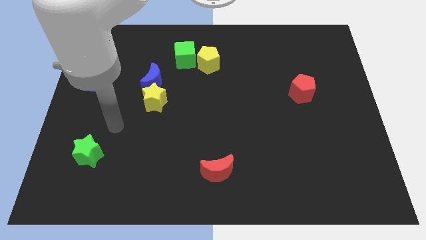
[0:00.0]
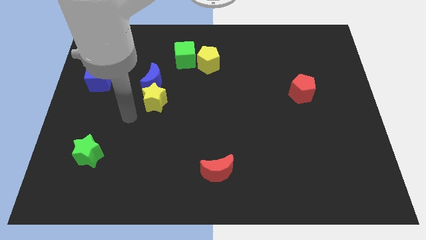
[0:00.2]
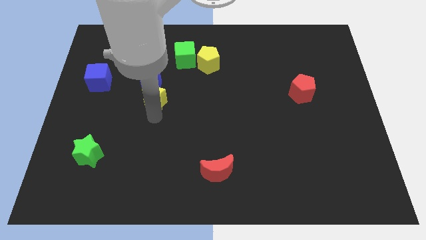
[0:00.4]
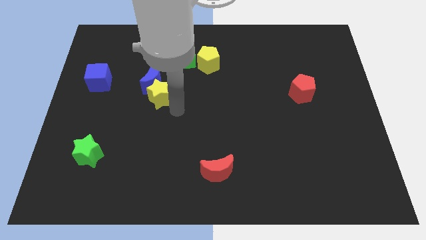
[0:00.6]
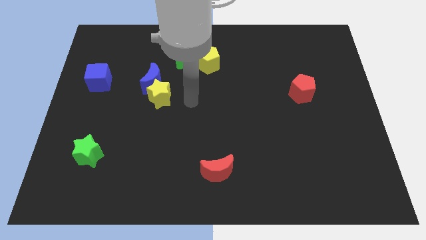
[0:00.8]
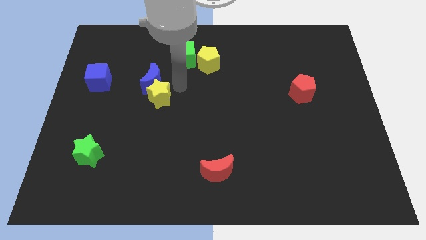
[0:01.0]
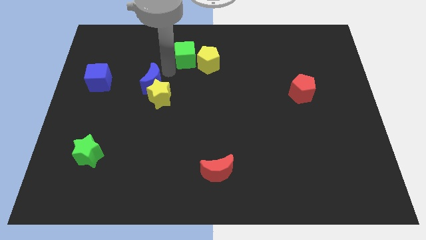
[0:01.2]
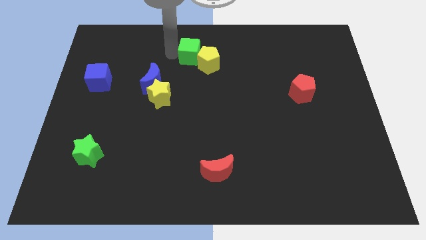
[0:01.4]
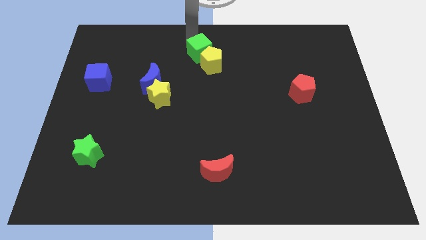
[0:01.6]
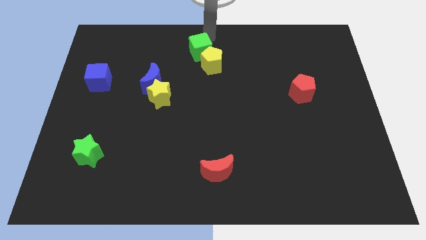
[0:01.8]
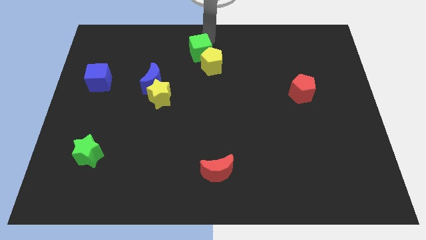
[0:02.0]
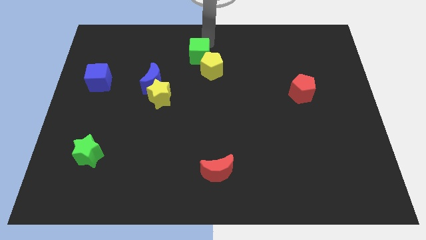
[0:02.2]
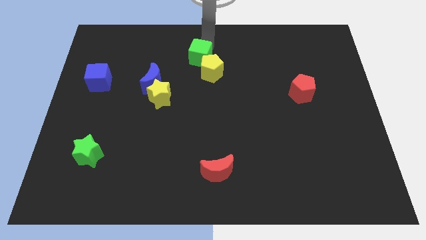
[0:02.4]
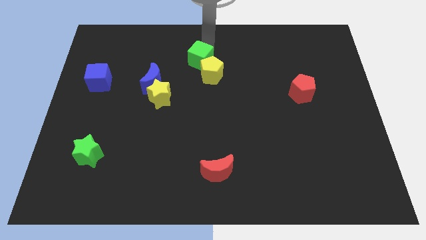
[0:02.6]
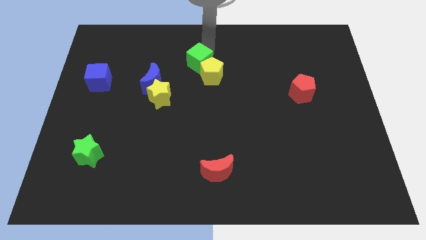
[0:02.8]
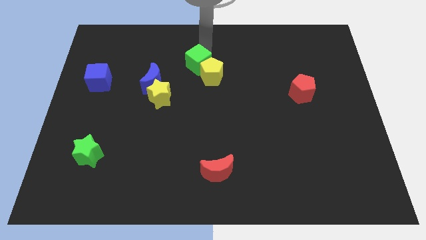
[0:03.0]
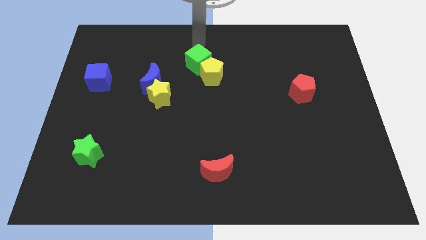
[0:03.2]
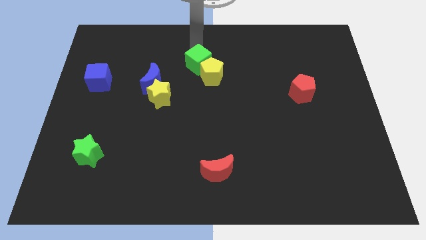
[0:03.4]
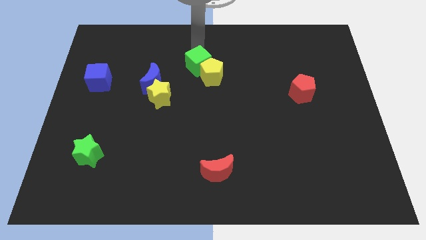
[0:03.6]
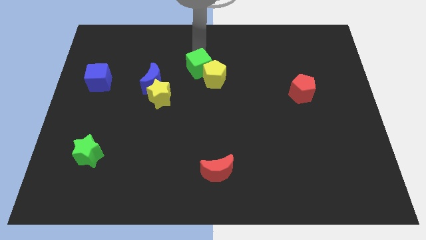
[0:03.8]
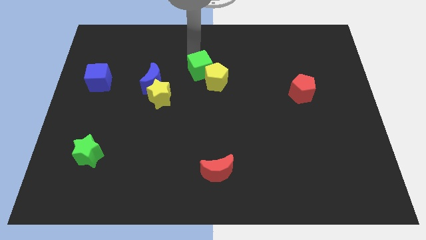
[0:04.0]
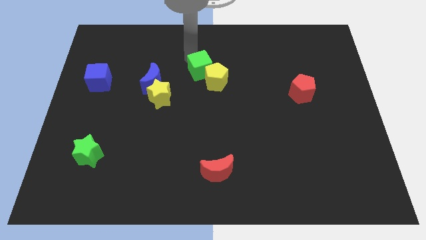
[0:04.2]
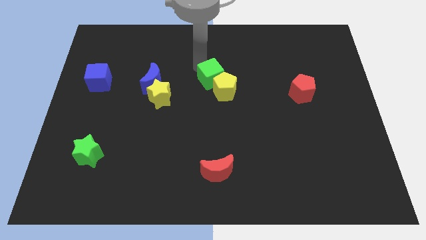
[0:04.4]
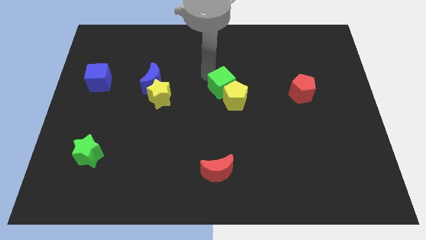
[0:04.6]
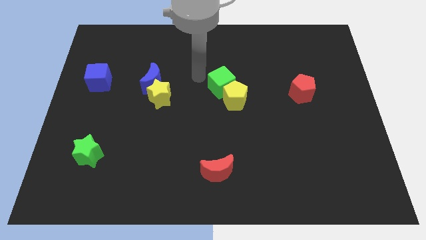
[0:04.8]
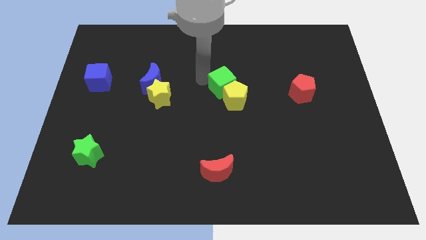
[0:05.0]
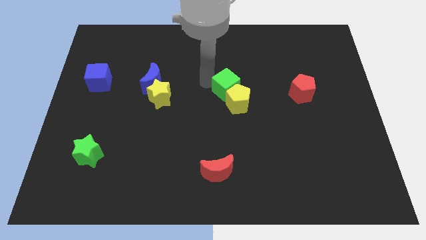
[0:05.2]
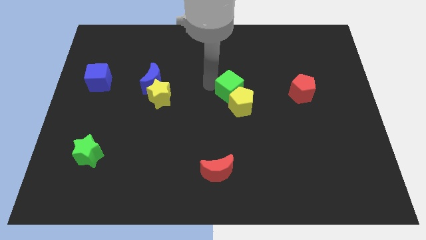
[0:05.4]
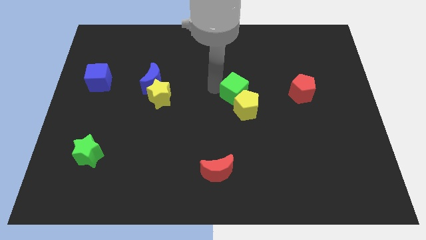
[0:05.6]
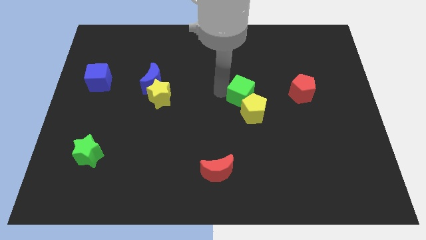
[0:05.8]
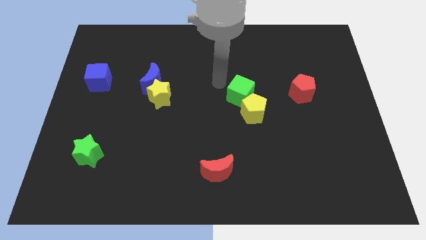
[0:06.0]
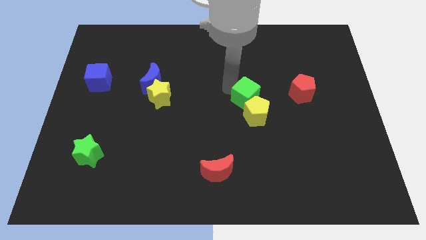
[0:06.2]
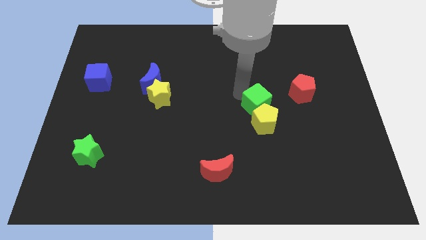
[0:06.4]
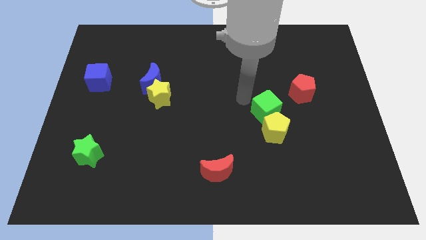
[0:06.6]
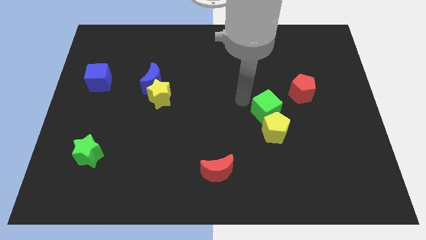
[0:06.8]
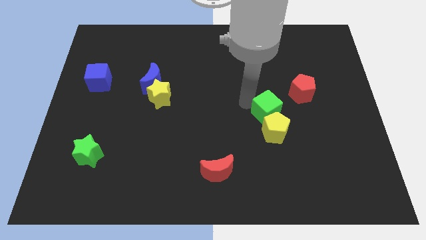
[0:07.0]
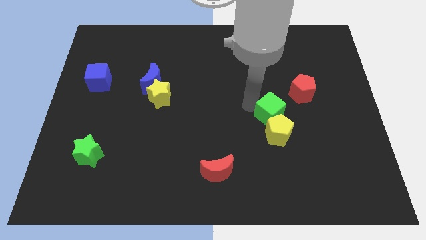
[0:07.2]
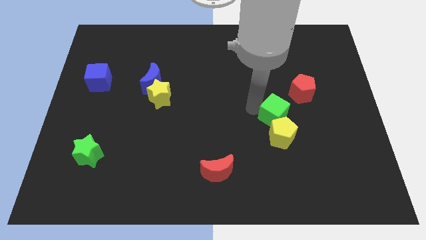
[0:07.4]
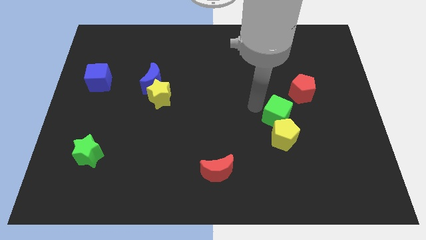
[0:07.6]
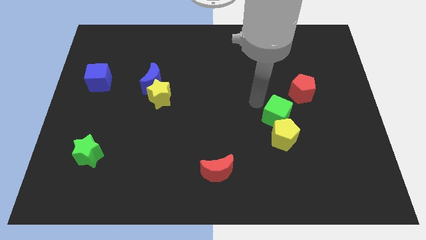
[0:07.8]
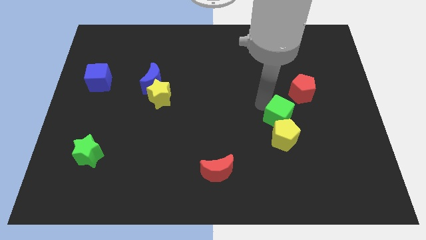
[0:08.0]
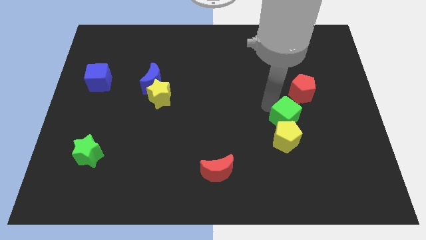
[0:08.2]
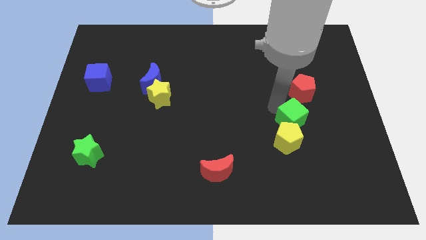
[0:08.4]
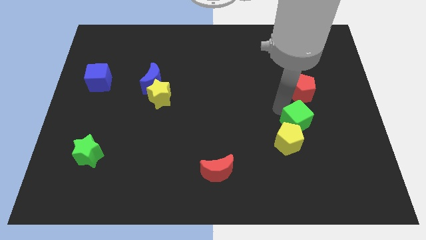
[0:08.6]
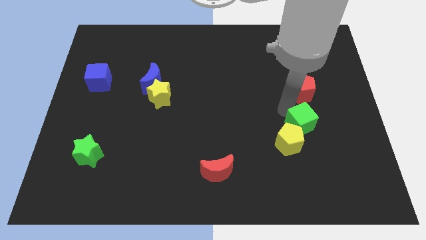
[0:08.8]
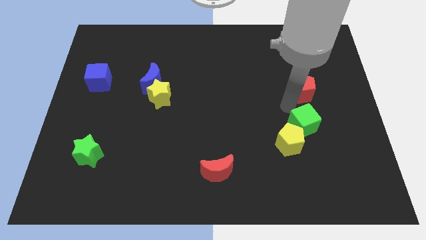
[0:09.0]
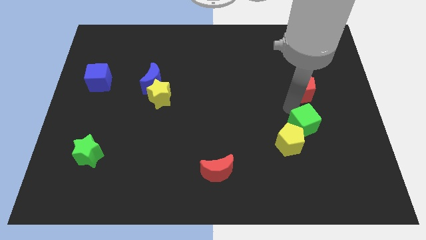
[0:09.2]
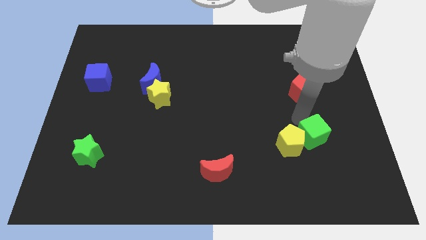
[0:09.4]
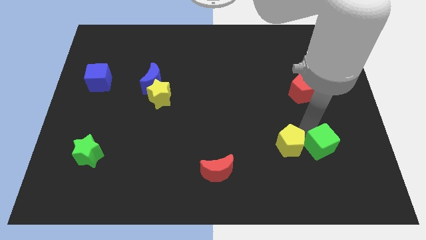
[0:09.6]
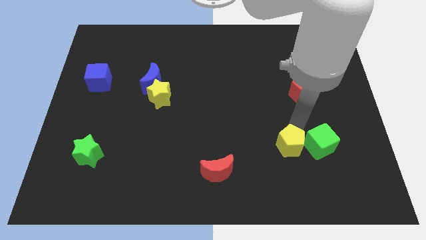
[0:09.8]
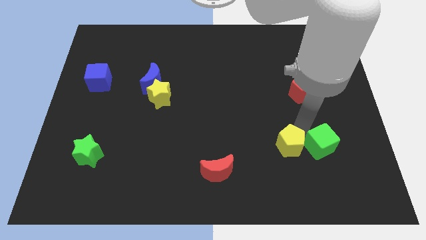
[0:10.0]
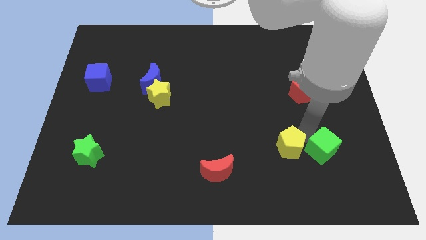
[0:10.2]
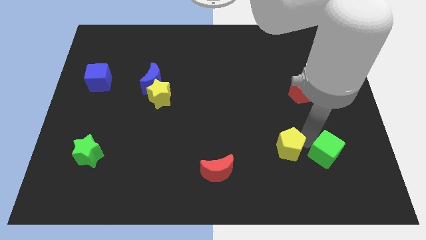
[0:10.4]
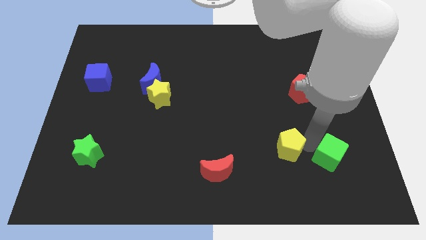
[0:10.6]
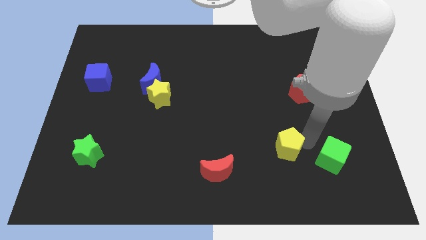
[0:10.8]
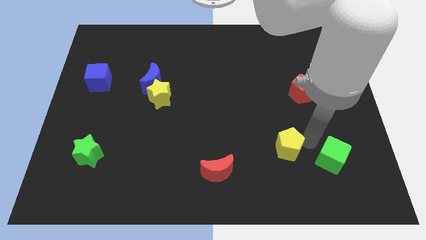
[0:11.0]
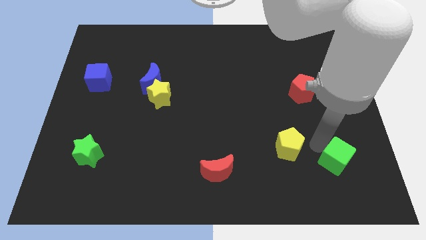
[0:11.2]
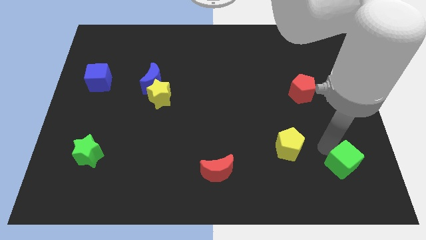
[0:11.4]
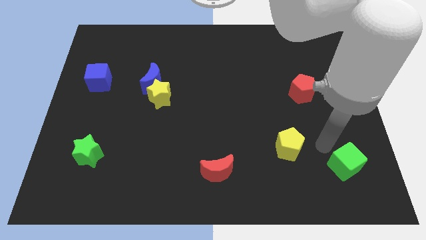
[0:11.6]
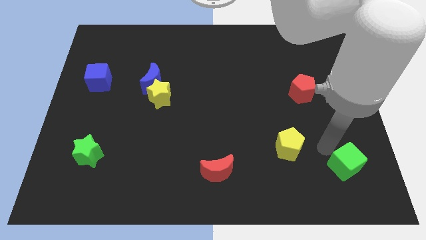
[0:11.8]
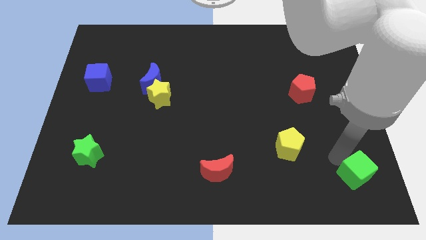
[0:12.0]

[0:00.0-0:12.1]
slide the green cube to the lower right corner
